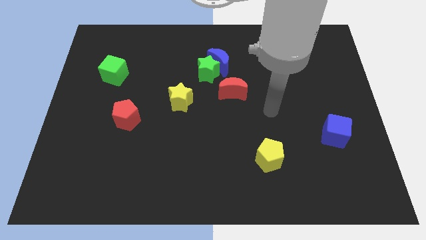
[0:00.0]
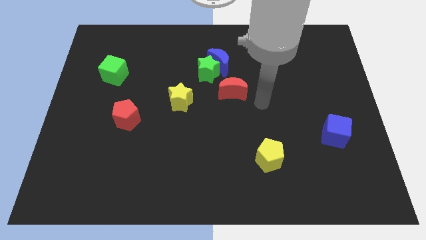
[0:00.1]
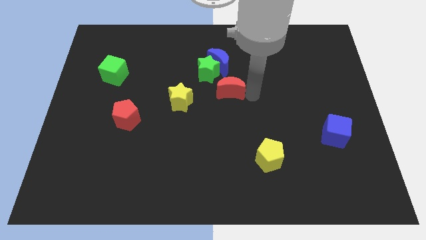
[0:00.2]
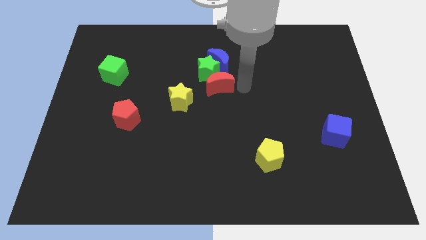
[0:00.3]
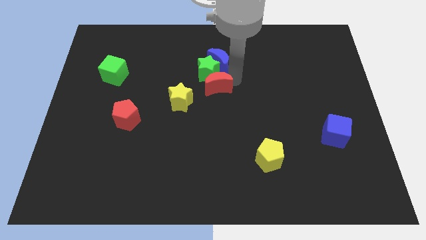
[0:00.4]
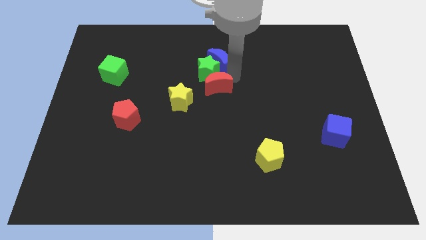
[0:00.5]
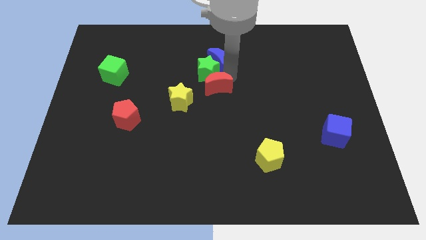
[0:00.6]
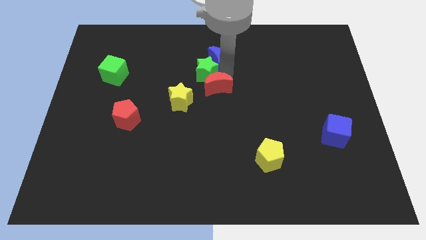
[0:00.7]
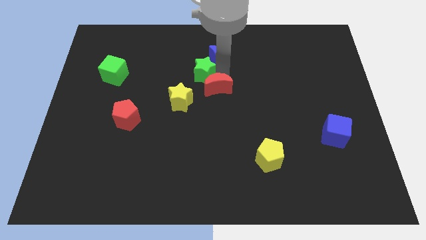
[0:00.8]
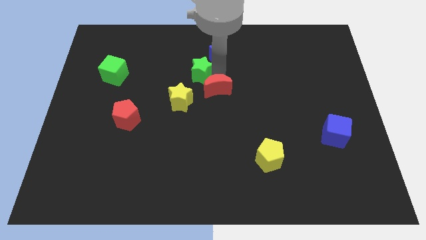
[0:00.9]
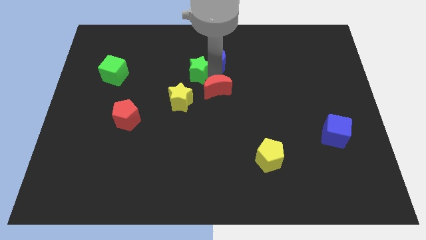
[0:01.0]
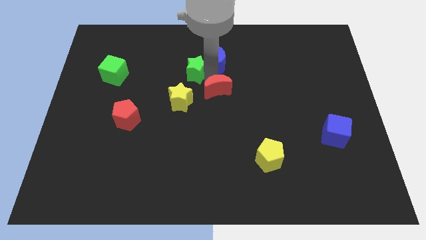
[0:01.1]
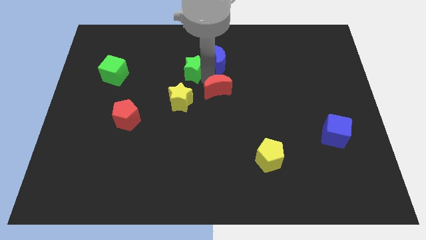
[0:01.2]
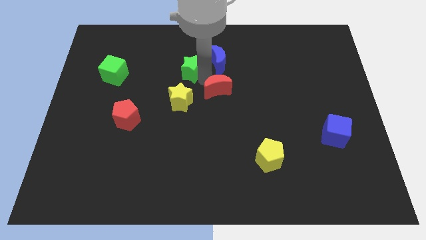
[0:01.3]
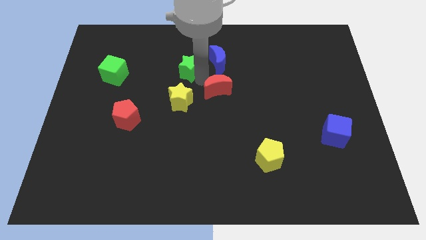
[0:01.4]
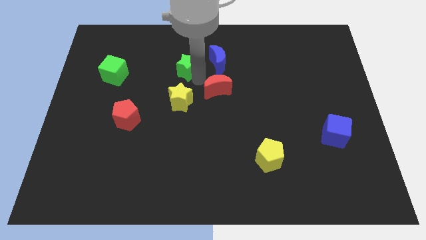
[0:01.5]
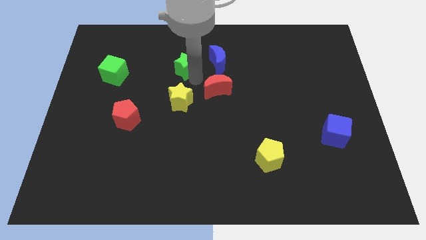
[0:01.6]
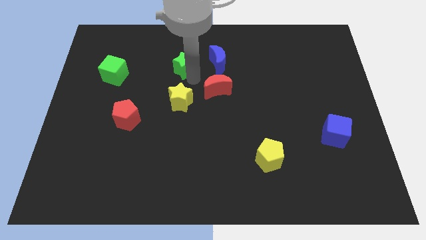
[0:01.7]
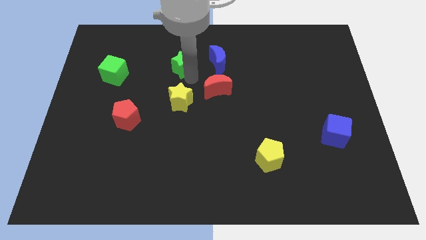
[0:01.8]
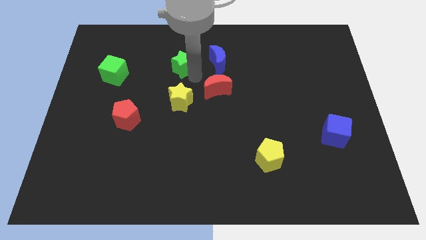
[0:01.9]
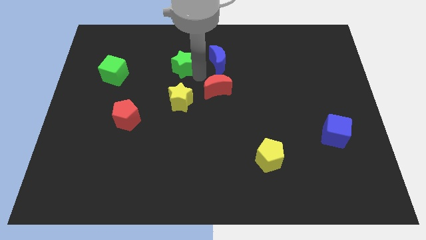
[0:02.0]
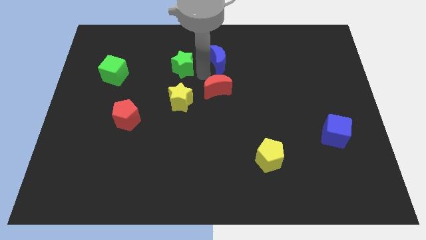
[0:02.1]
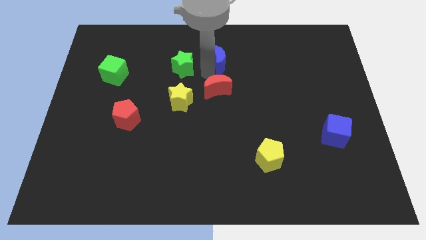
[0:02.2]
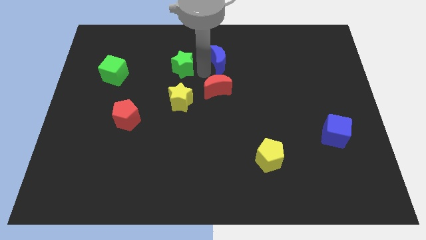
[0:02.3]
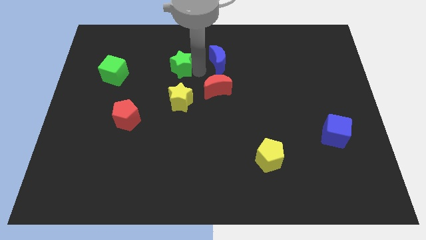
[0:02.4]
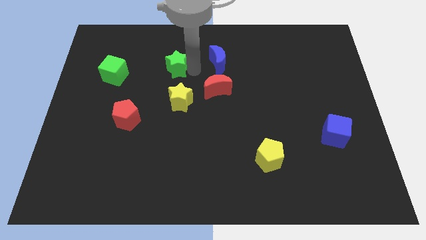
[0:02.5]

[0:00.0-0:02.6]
move the green star away from the blue moon and red moon

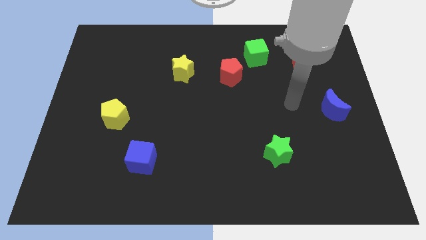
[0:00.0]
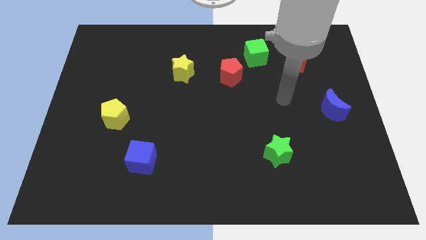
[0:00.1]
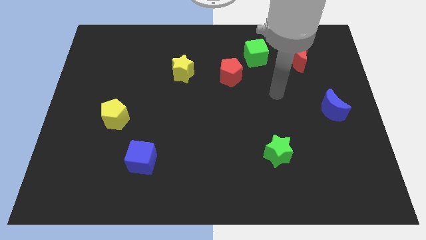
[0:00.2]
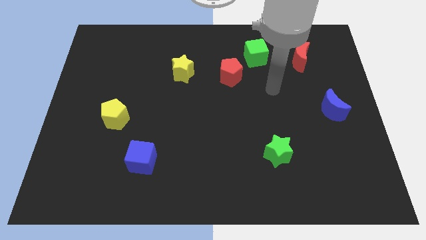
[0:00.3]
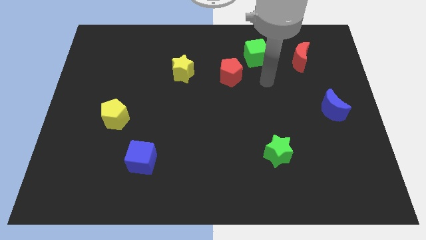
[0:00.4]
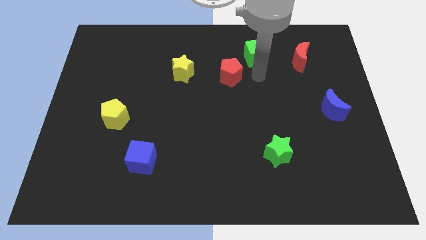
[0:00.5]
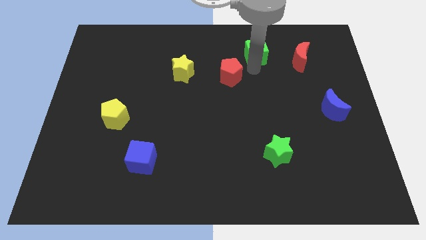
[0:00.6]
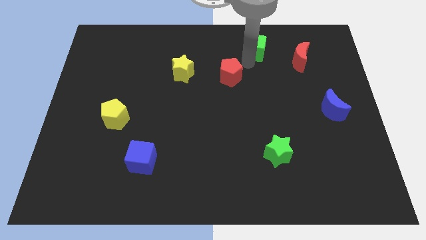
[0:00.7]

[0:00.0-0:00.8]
separate the red pentagon from the green cube

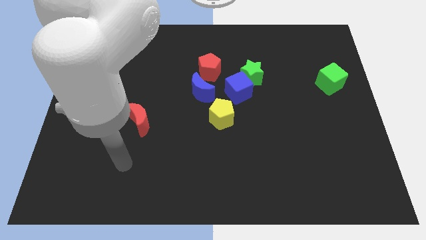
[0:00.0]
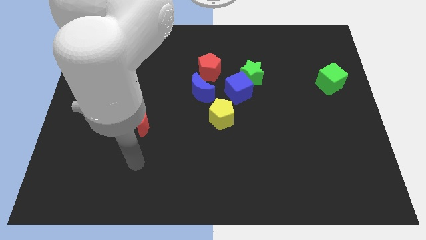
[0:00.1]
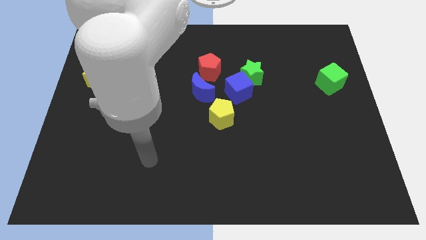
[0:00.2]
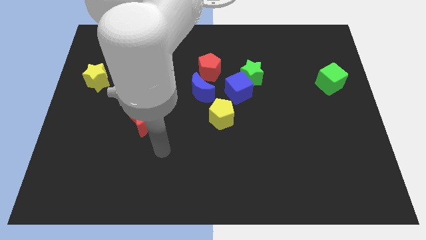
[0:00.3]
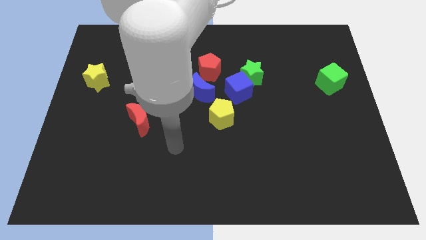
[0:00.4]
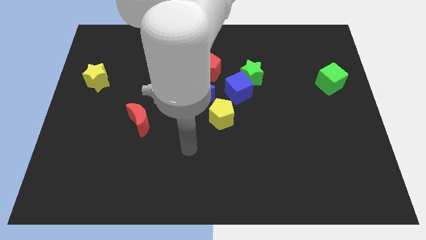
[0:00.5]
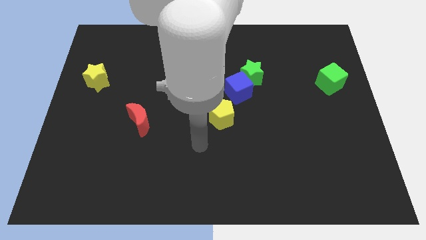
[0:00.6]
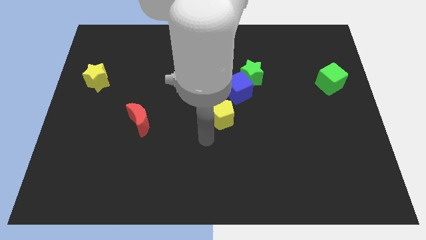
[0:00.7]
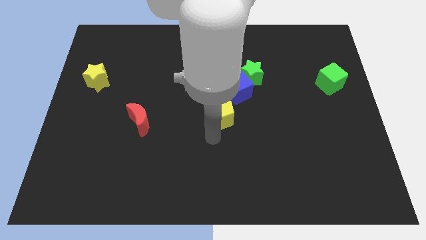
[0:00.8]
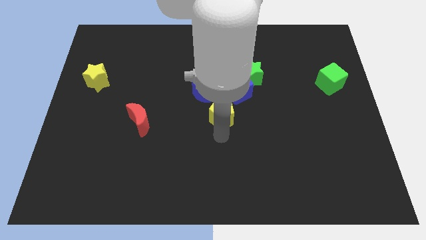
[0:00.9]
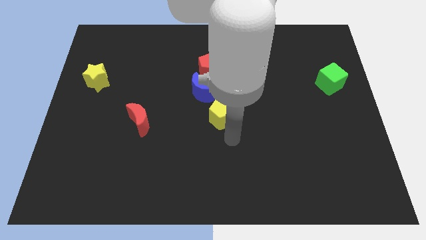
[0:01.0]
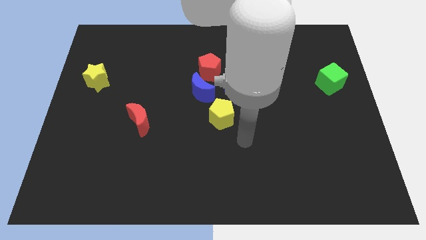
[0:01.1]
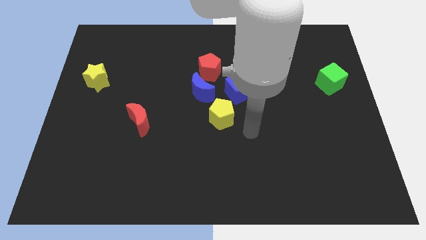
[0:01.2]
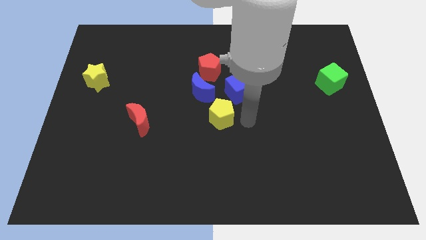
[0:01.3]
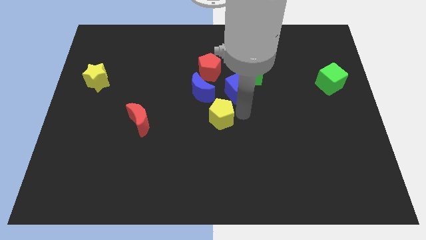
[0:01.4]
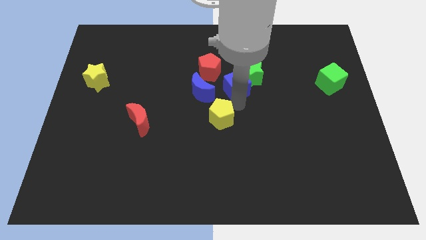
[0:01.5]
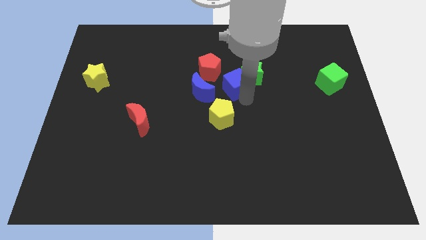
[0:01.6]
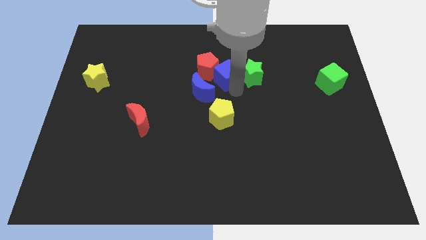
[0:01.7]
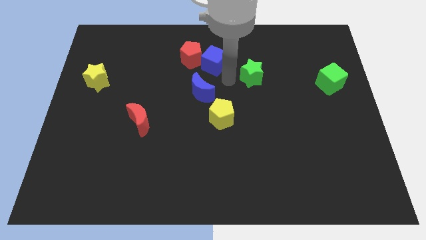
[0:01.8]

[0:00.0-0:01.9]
pull the green star apart from the blue cube

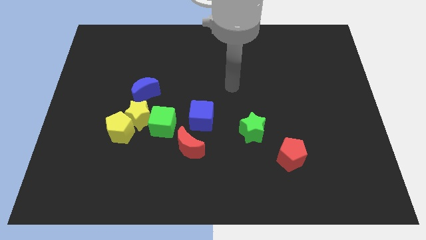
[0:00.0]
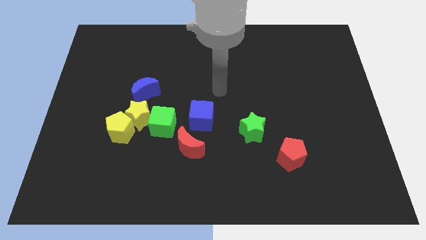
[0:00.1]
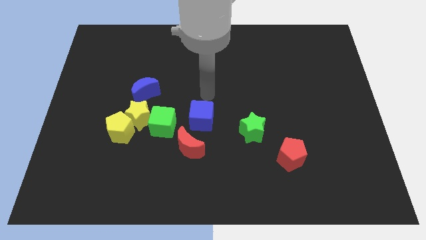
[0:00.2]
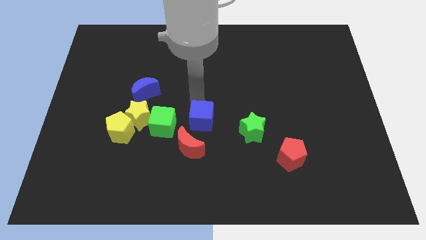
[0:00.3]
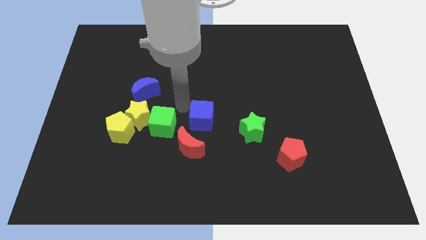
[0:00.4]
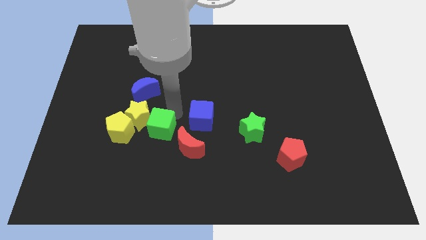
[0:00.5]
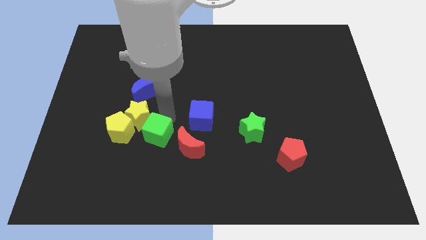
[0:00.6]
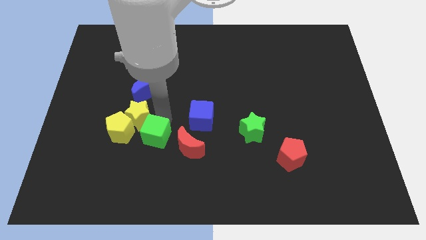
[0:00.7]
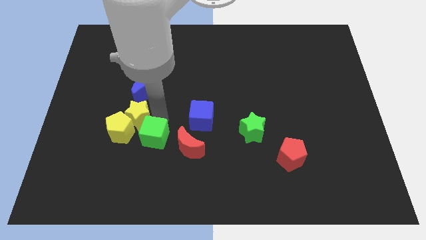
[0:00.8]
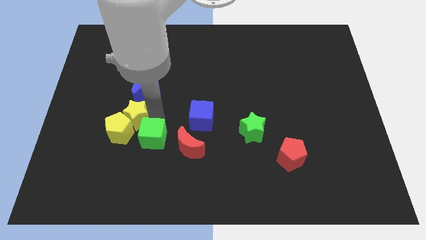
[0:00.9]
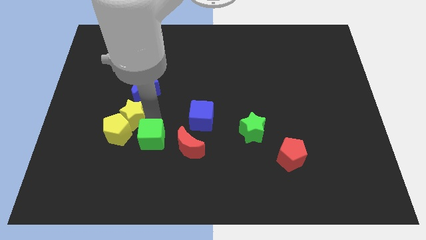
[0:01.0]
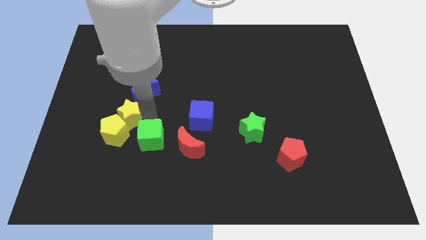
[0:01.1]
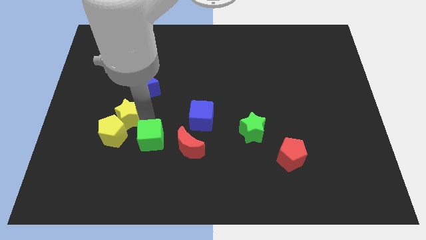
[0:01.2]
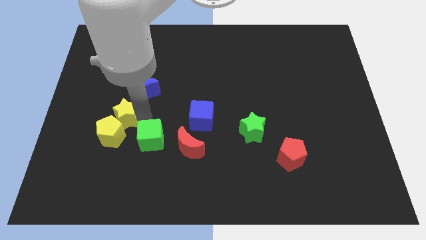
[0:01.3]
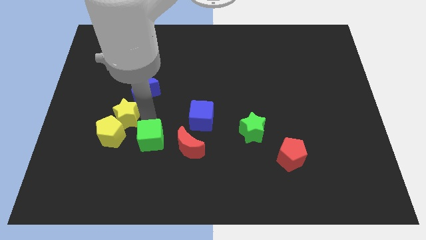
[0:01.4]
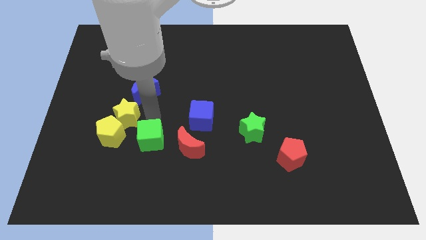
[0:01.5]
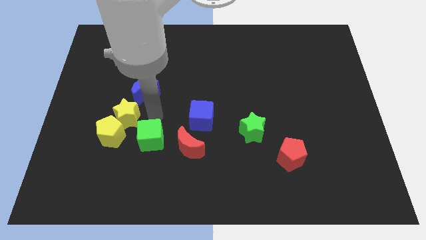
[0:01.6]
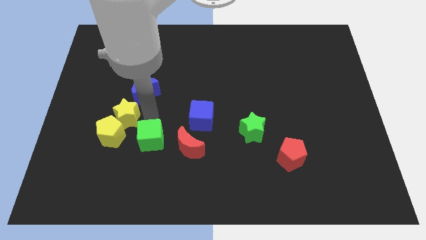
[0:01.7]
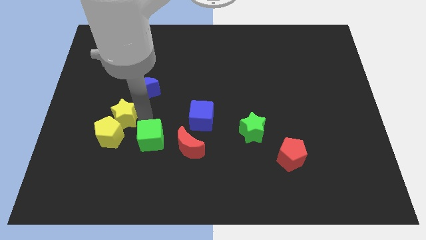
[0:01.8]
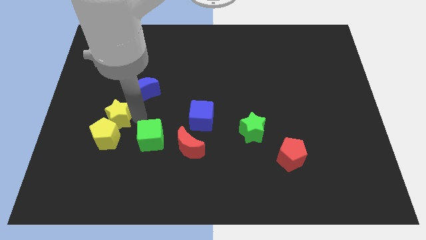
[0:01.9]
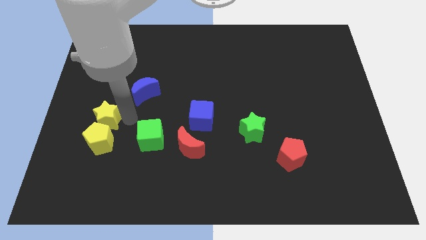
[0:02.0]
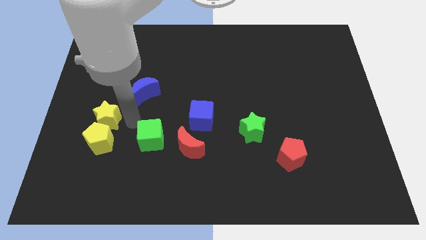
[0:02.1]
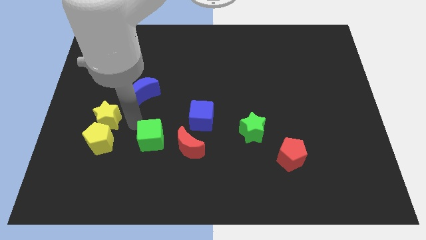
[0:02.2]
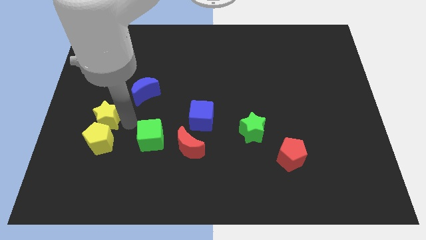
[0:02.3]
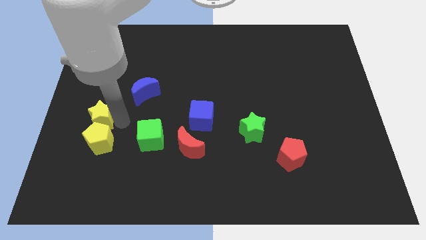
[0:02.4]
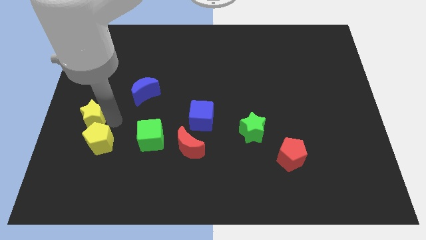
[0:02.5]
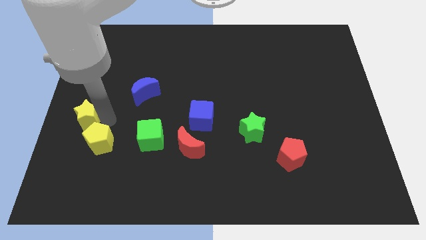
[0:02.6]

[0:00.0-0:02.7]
pull the yellow star apart from the yellow pentagon, green cube, and blue moon

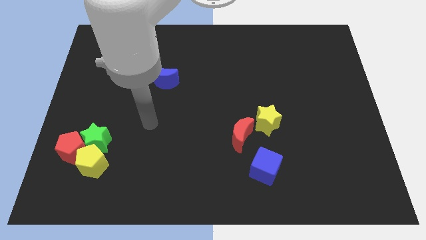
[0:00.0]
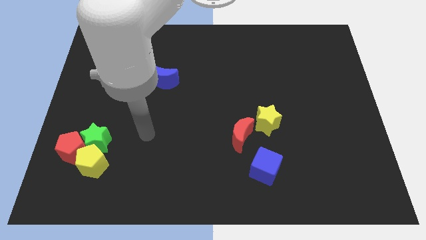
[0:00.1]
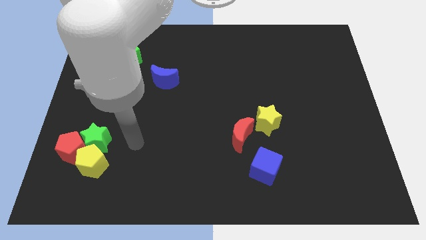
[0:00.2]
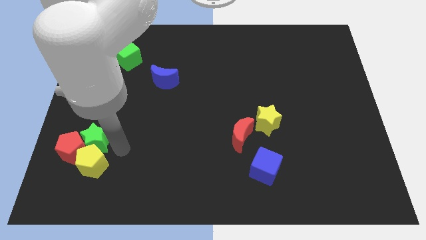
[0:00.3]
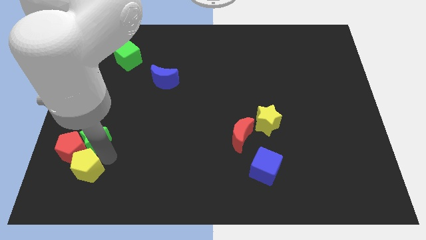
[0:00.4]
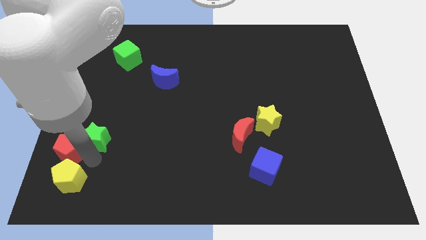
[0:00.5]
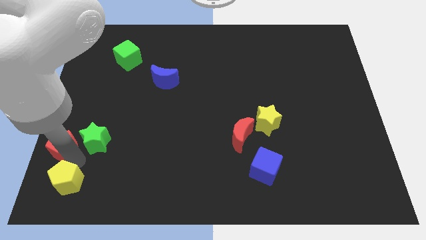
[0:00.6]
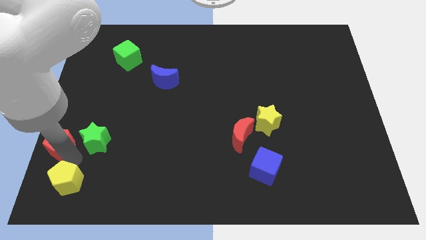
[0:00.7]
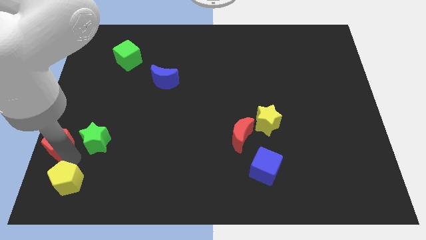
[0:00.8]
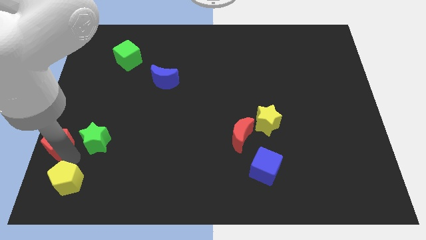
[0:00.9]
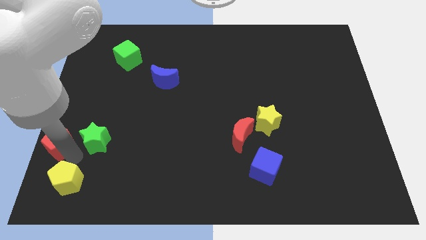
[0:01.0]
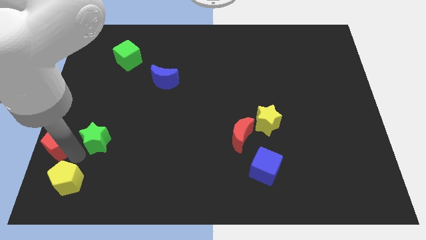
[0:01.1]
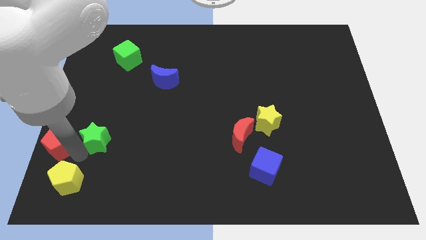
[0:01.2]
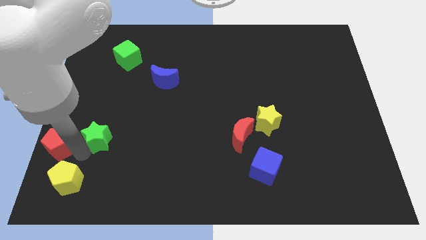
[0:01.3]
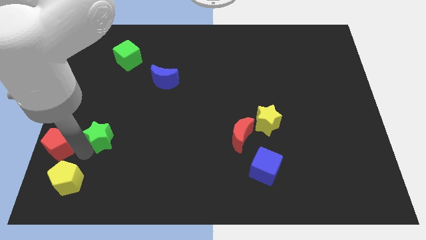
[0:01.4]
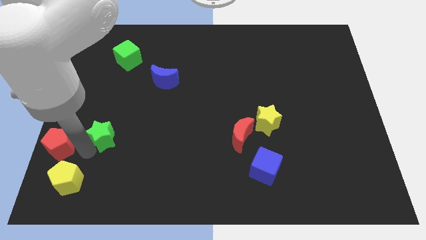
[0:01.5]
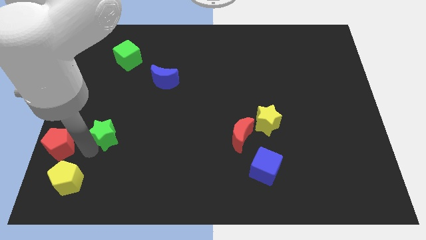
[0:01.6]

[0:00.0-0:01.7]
pull the green star apart from the red pentagon and yellow pentagon
